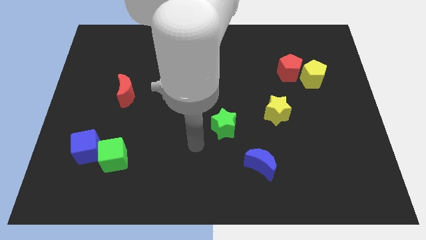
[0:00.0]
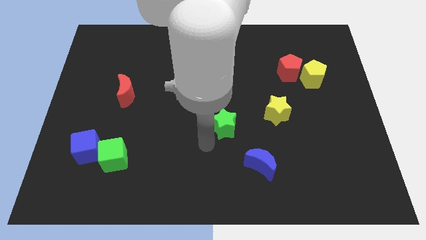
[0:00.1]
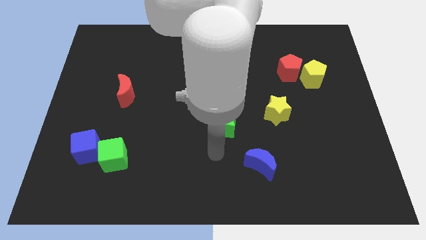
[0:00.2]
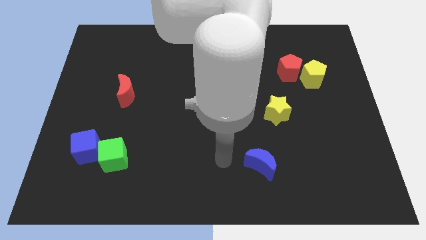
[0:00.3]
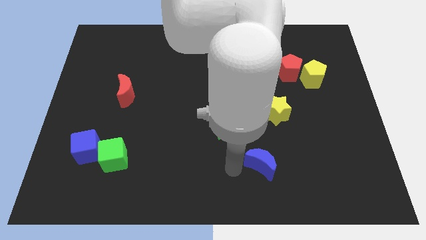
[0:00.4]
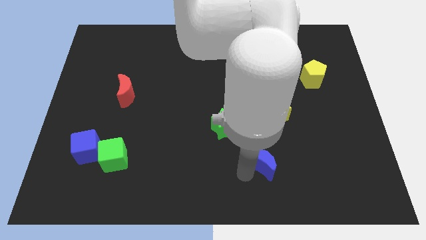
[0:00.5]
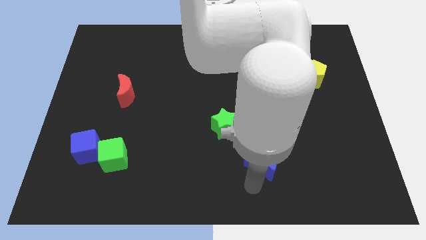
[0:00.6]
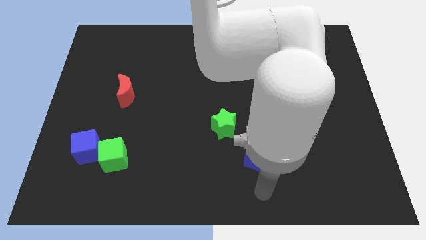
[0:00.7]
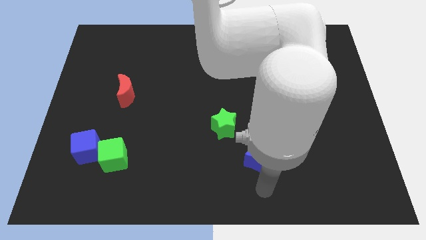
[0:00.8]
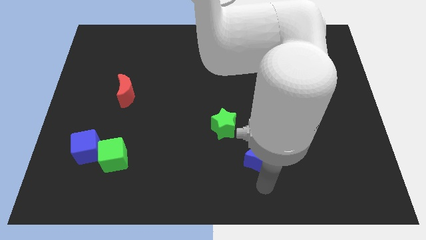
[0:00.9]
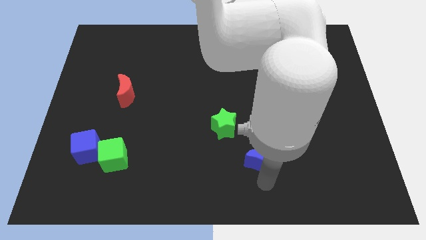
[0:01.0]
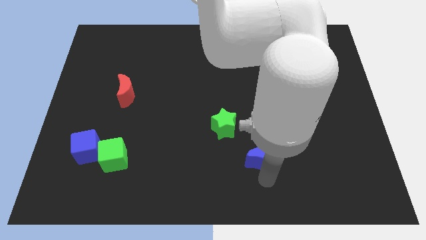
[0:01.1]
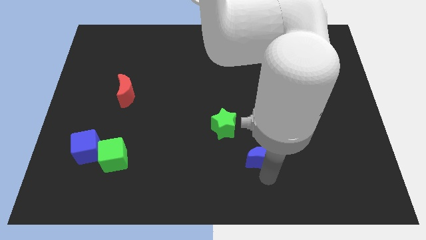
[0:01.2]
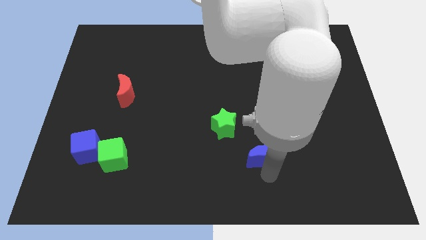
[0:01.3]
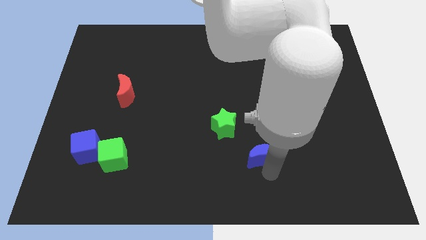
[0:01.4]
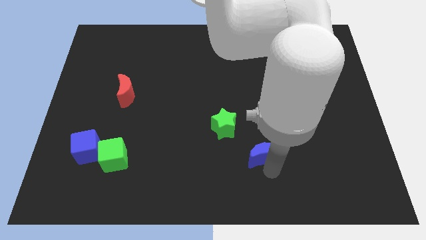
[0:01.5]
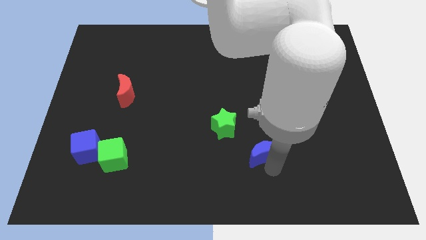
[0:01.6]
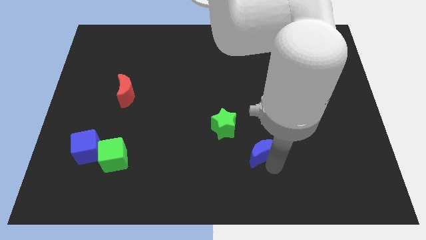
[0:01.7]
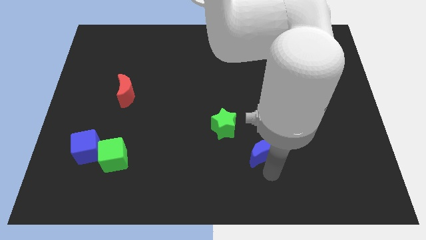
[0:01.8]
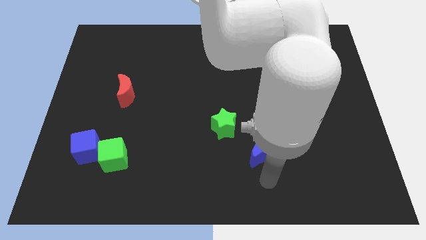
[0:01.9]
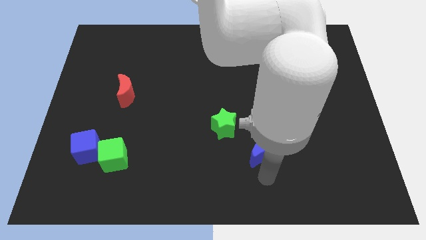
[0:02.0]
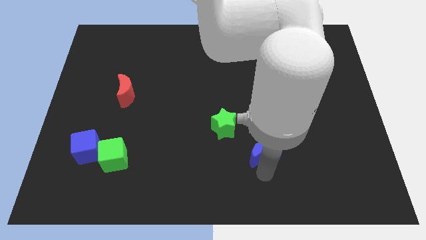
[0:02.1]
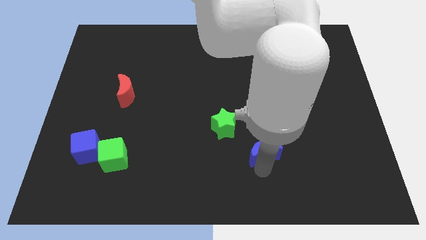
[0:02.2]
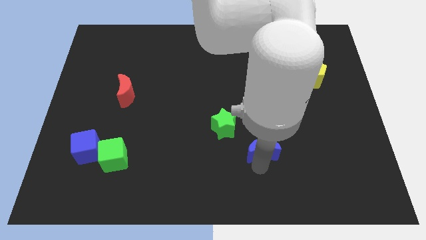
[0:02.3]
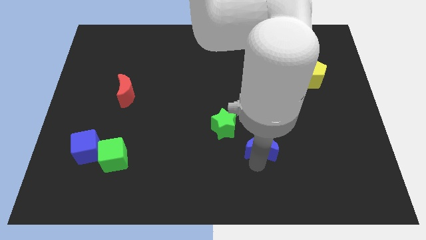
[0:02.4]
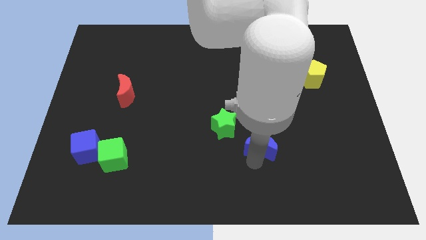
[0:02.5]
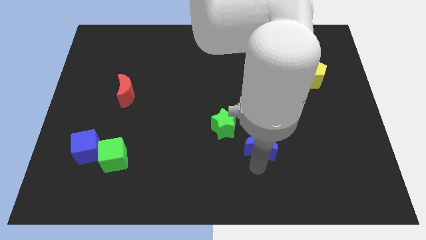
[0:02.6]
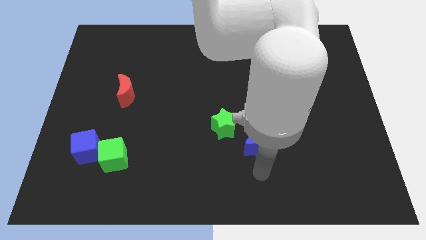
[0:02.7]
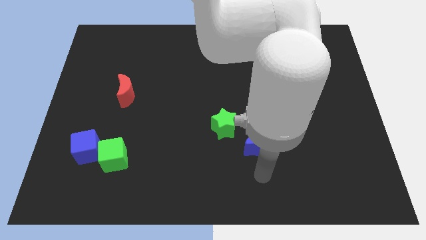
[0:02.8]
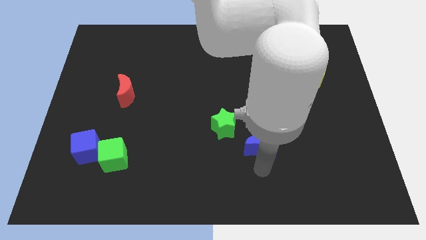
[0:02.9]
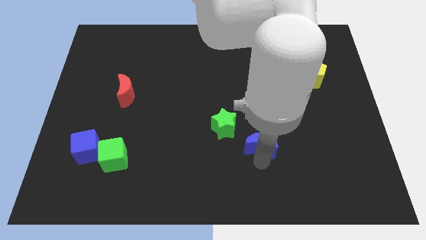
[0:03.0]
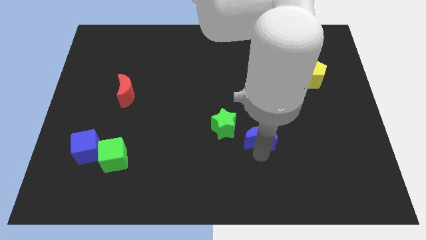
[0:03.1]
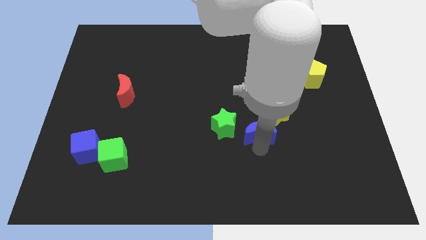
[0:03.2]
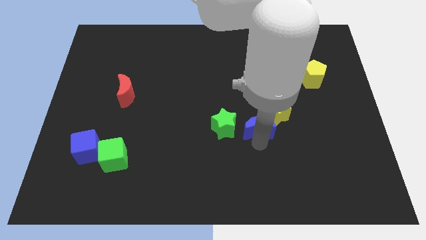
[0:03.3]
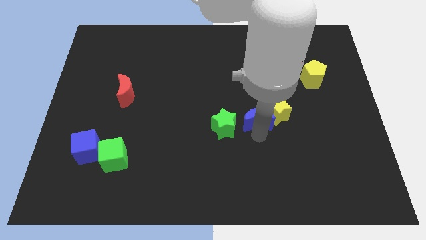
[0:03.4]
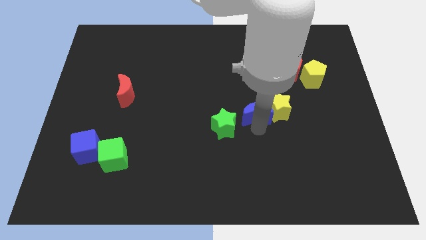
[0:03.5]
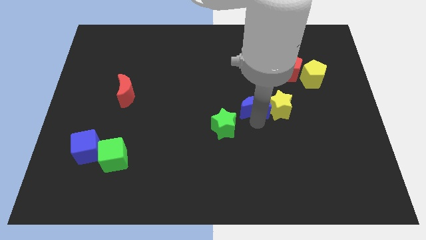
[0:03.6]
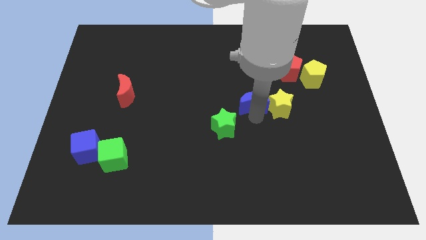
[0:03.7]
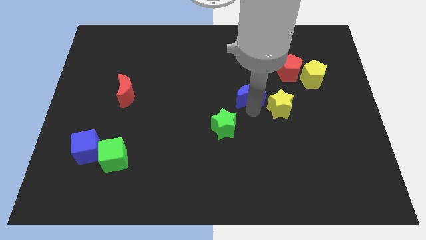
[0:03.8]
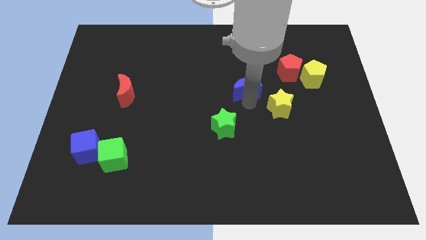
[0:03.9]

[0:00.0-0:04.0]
push the blue moon up

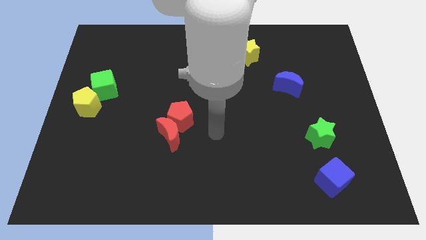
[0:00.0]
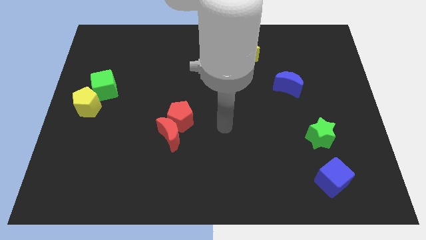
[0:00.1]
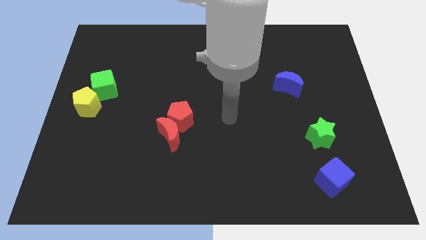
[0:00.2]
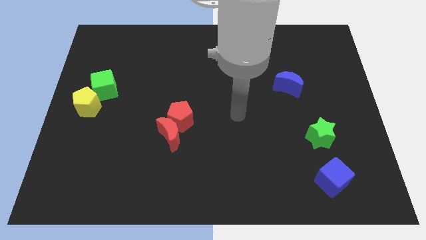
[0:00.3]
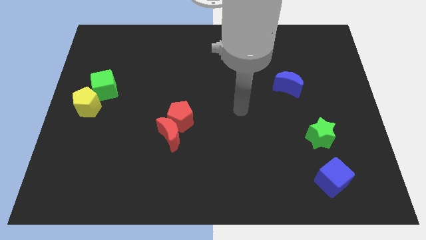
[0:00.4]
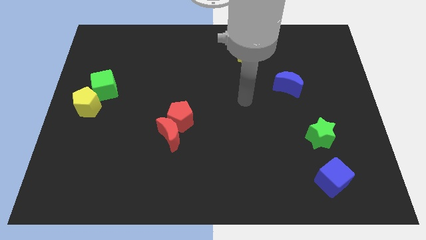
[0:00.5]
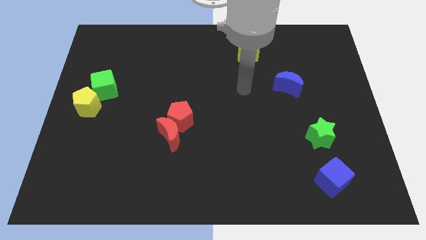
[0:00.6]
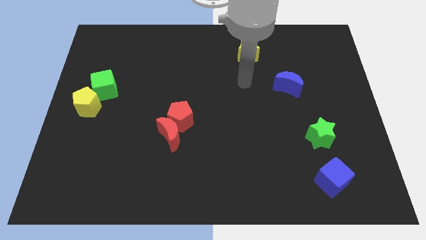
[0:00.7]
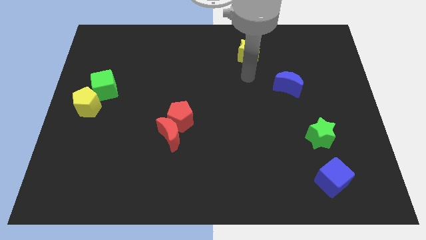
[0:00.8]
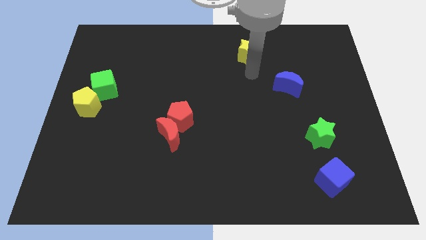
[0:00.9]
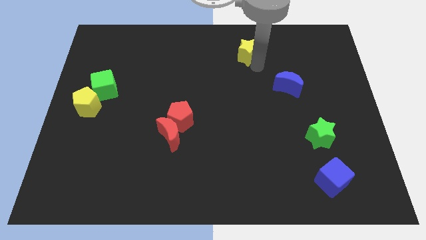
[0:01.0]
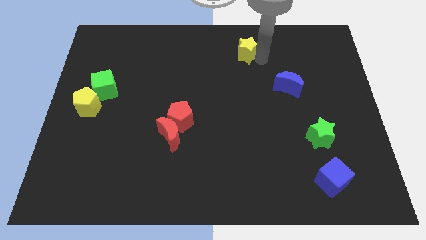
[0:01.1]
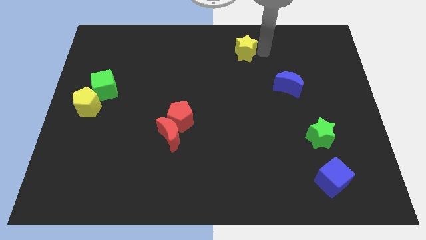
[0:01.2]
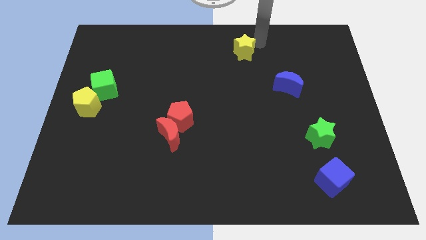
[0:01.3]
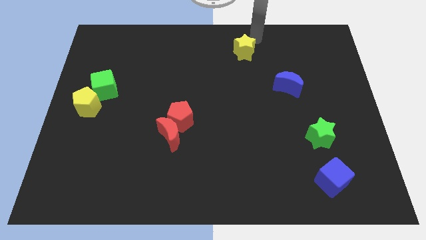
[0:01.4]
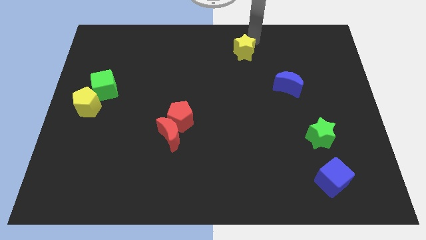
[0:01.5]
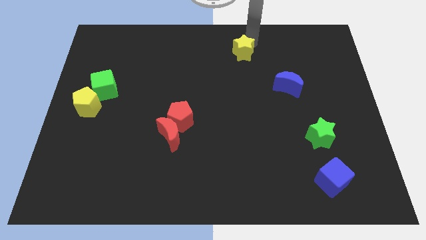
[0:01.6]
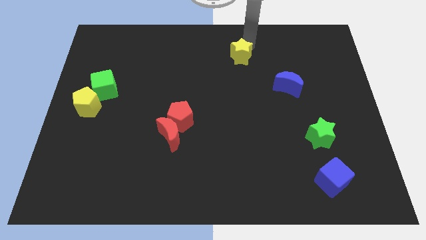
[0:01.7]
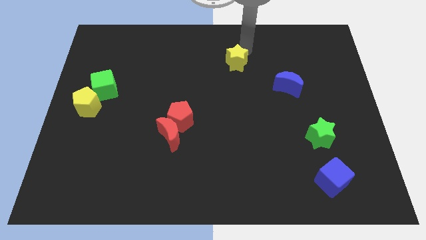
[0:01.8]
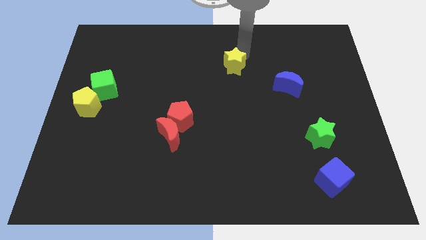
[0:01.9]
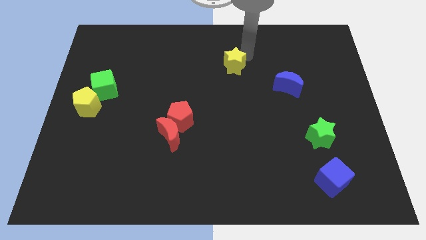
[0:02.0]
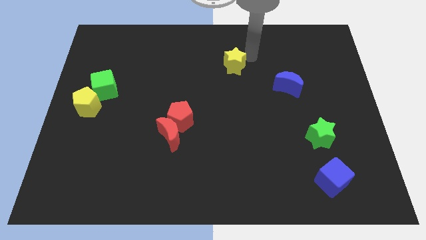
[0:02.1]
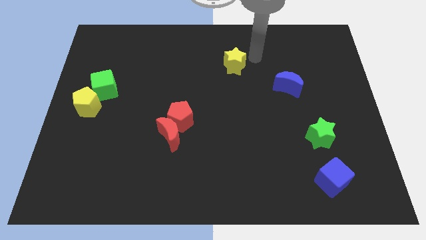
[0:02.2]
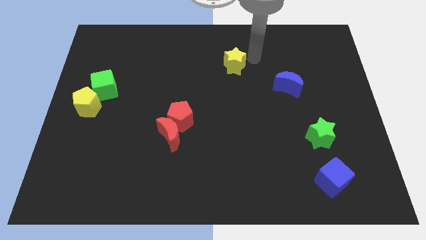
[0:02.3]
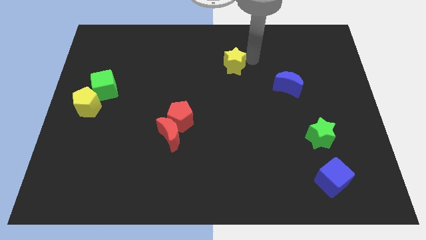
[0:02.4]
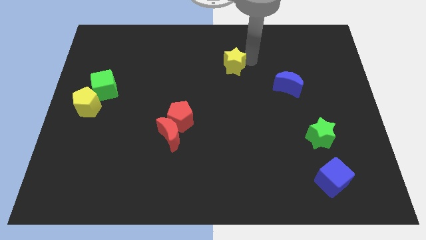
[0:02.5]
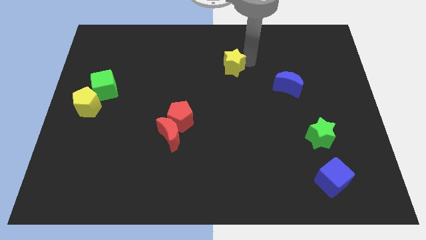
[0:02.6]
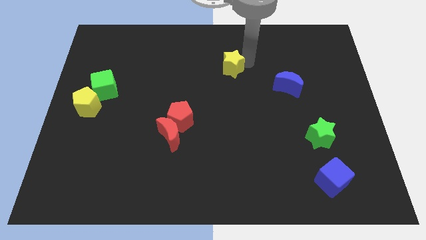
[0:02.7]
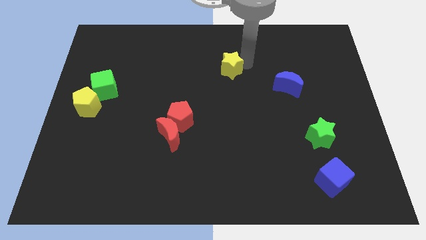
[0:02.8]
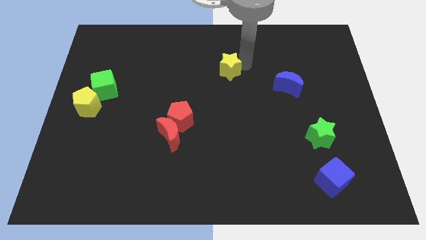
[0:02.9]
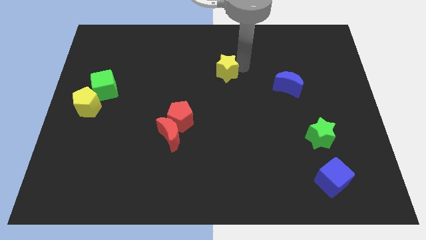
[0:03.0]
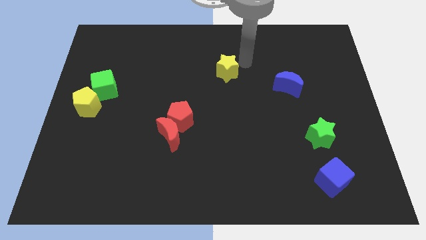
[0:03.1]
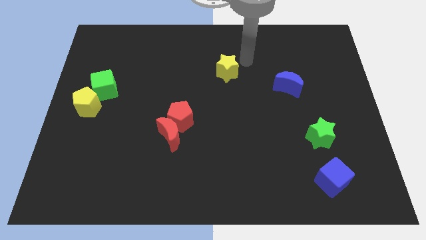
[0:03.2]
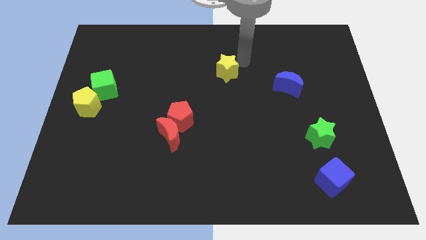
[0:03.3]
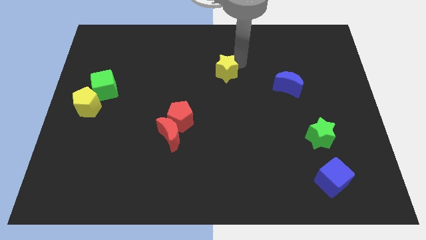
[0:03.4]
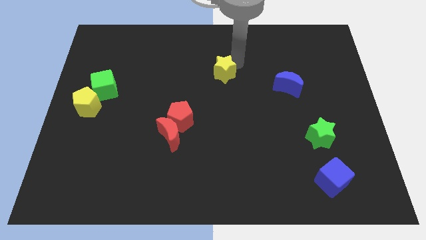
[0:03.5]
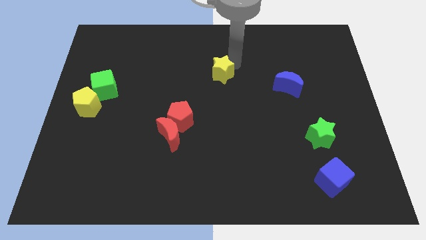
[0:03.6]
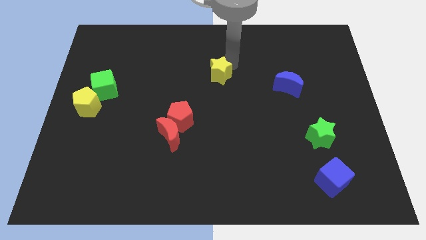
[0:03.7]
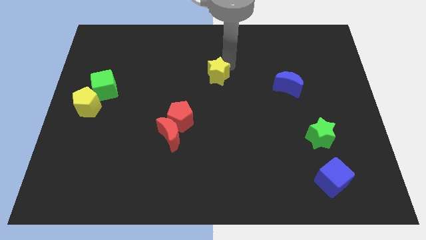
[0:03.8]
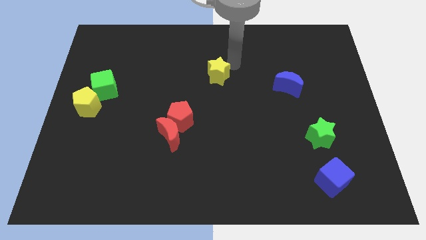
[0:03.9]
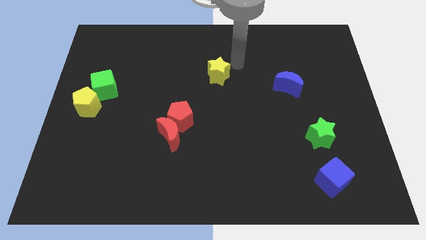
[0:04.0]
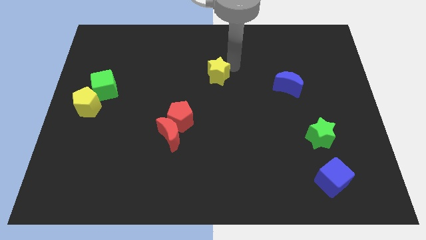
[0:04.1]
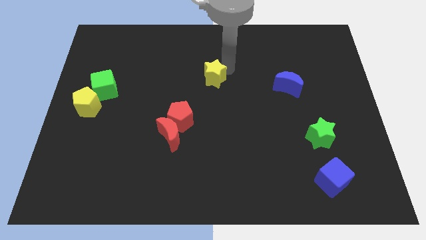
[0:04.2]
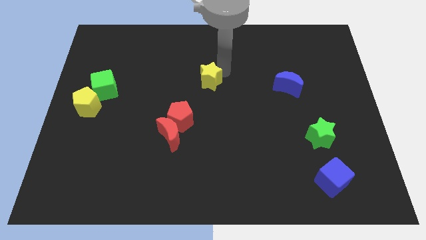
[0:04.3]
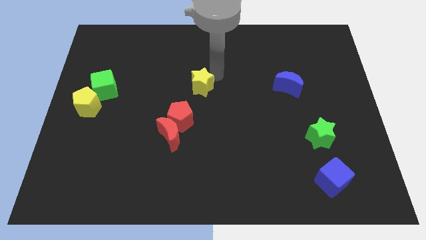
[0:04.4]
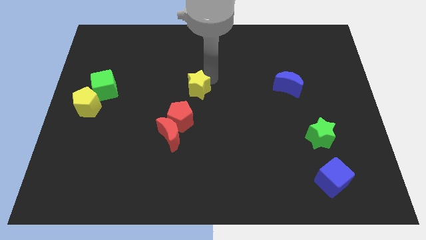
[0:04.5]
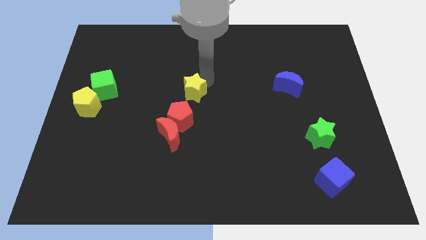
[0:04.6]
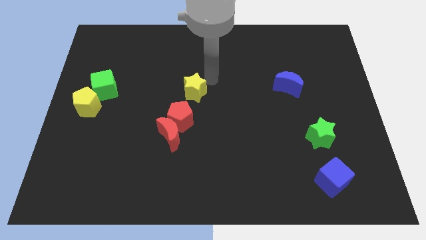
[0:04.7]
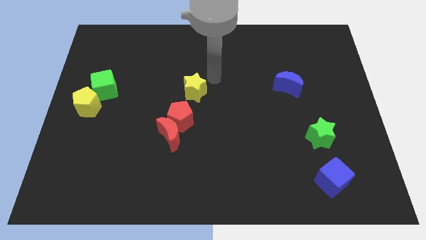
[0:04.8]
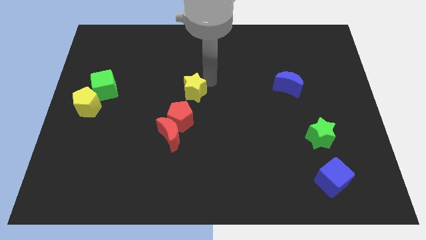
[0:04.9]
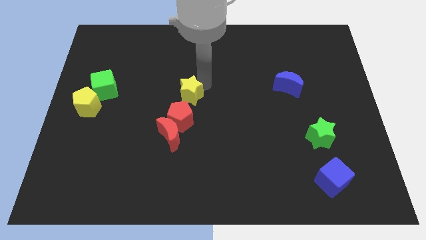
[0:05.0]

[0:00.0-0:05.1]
move the yellow star downwards and then left
